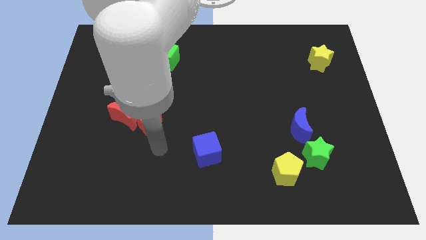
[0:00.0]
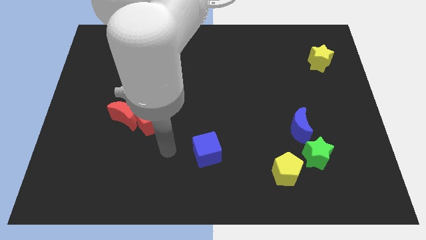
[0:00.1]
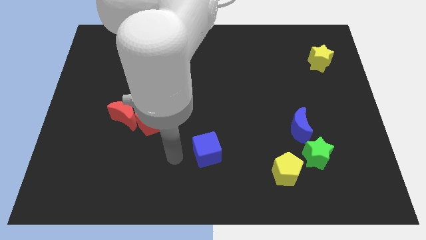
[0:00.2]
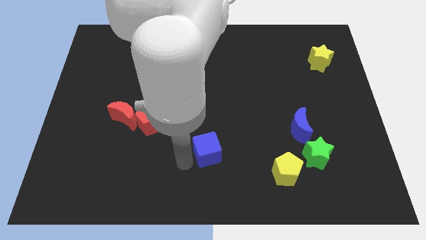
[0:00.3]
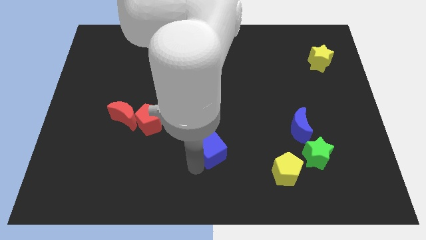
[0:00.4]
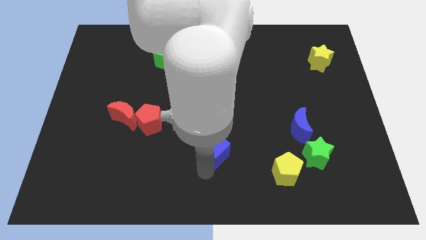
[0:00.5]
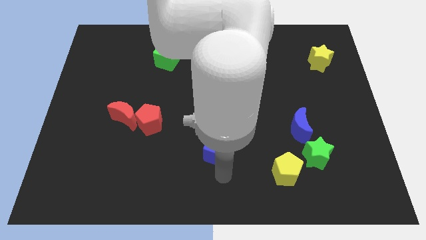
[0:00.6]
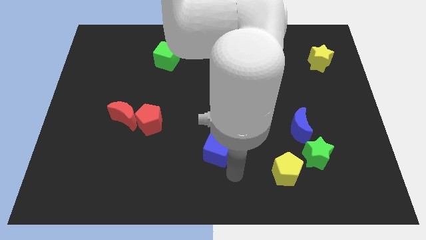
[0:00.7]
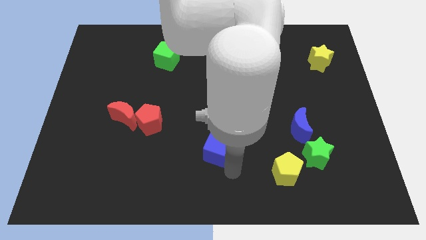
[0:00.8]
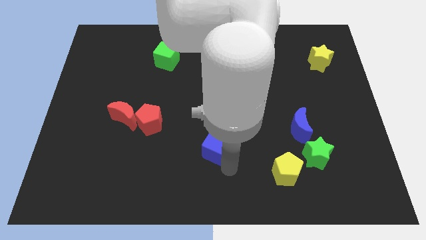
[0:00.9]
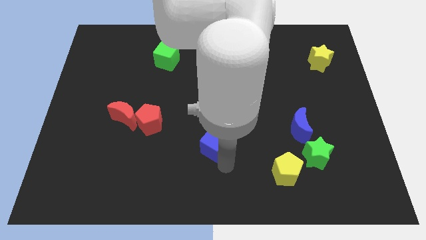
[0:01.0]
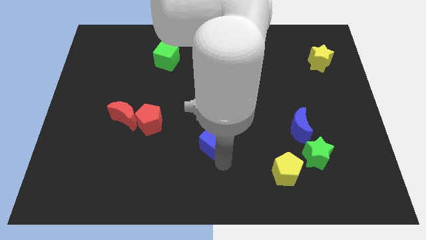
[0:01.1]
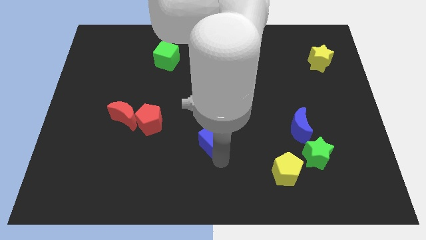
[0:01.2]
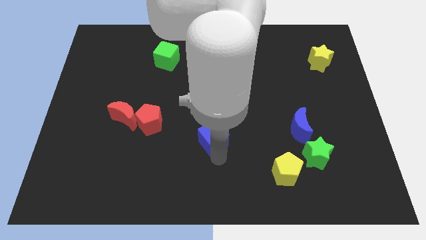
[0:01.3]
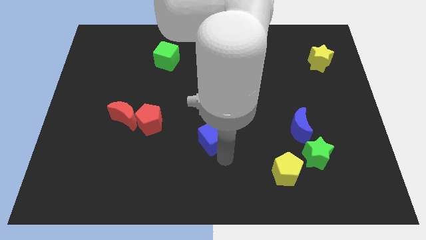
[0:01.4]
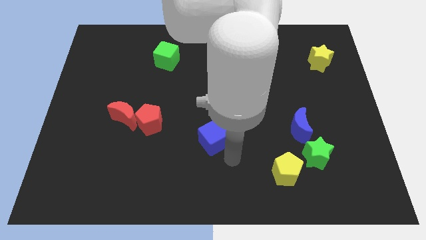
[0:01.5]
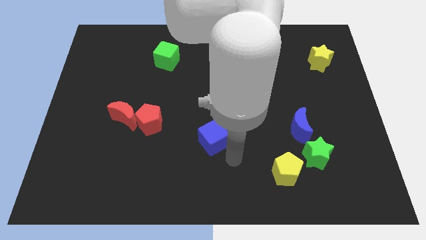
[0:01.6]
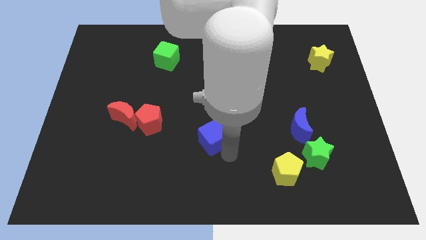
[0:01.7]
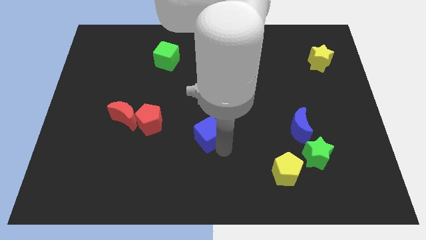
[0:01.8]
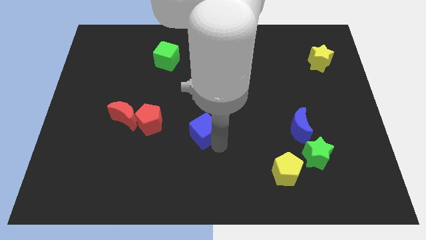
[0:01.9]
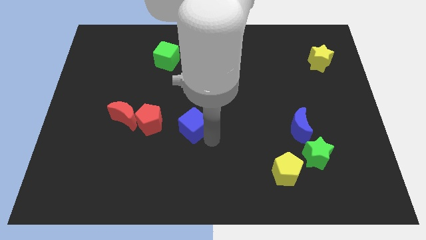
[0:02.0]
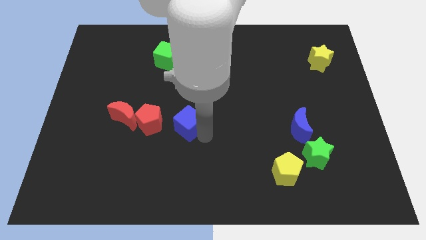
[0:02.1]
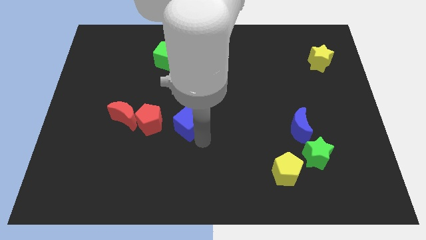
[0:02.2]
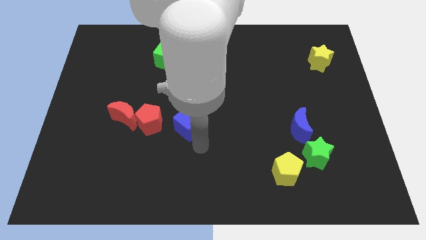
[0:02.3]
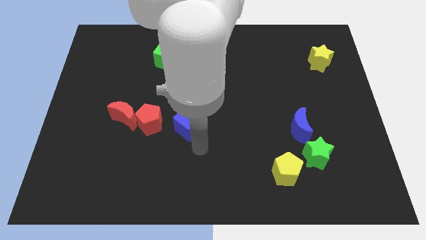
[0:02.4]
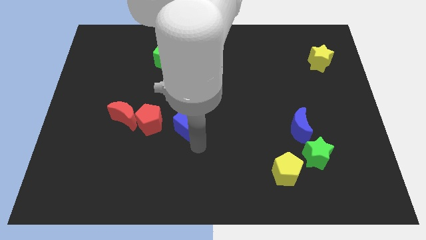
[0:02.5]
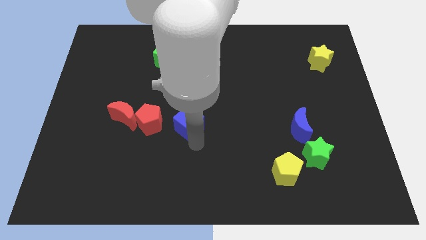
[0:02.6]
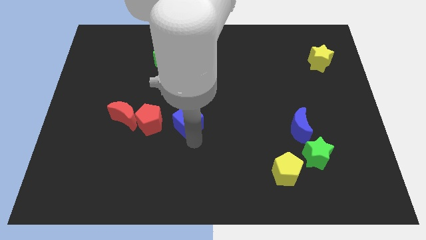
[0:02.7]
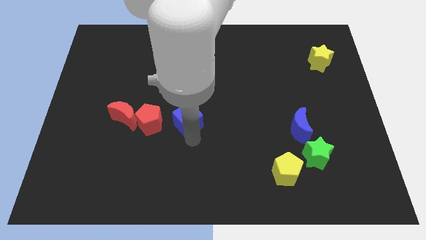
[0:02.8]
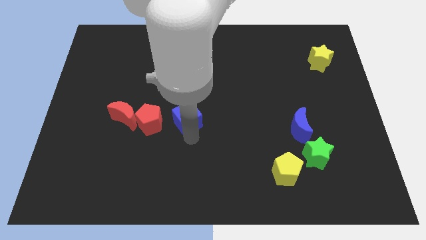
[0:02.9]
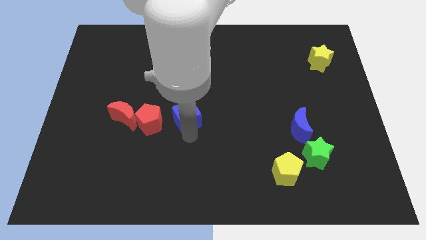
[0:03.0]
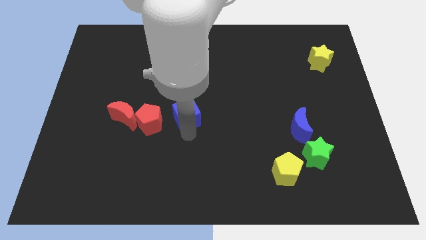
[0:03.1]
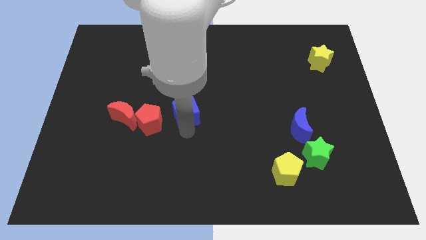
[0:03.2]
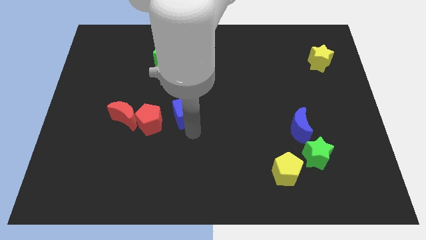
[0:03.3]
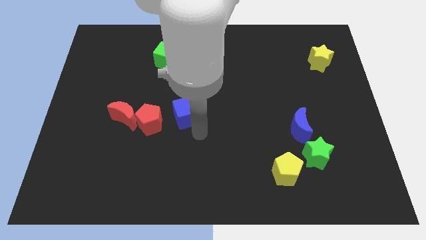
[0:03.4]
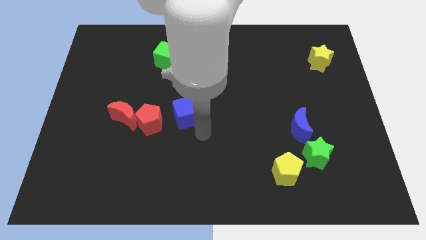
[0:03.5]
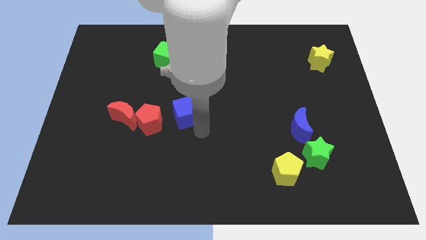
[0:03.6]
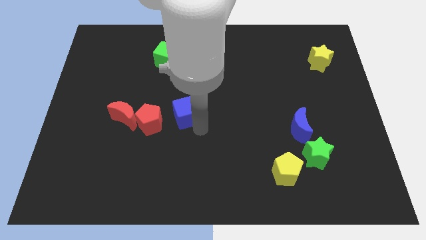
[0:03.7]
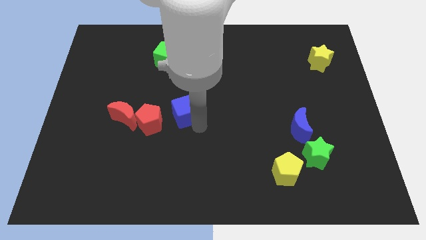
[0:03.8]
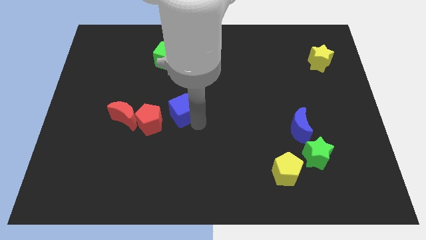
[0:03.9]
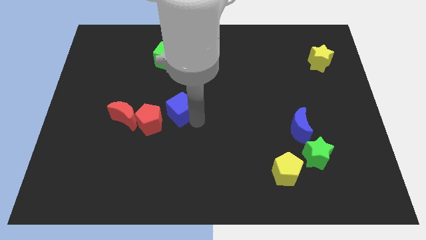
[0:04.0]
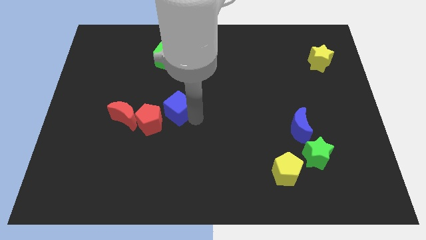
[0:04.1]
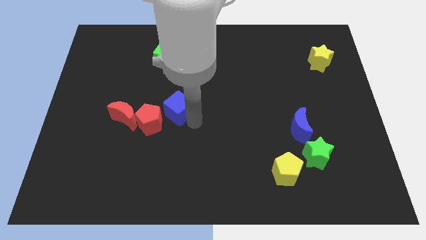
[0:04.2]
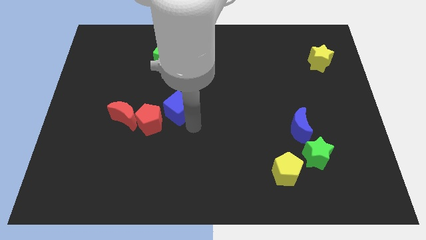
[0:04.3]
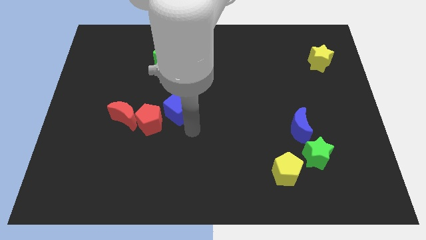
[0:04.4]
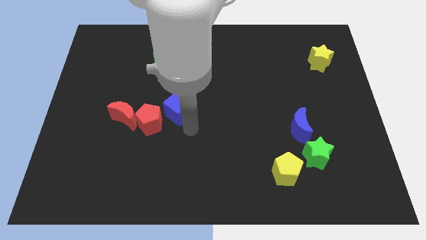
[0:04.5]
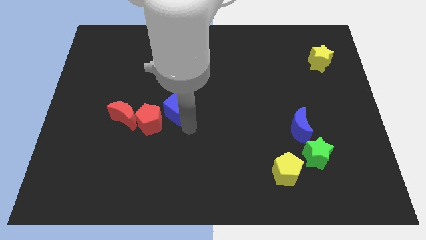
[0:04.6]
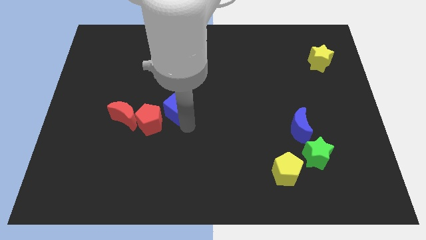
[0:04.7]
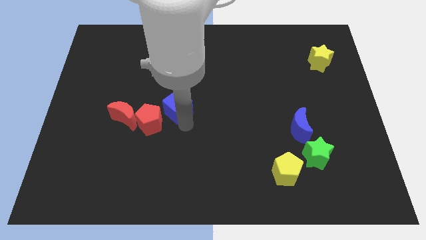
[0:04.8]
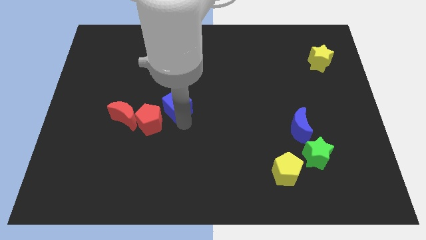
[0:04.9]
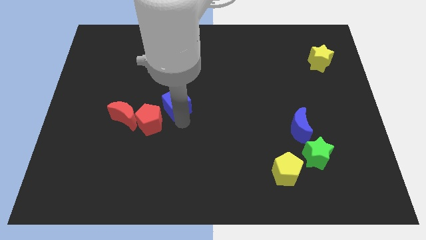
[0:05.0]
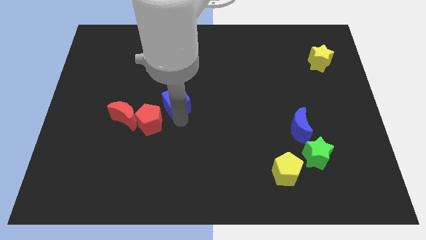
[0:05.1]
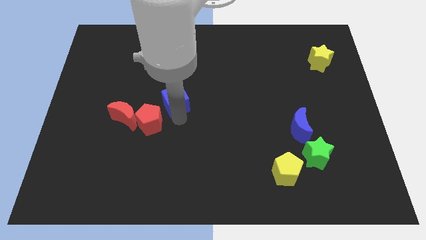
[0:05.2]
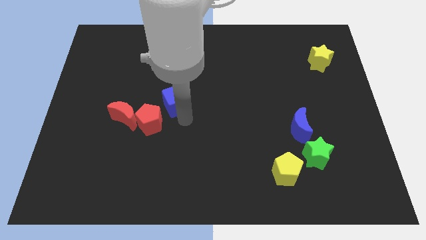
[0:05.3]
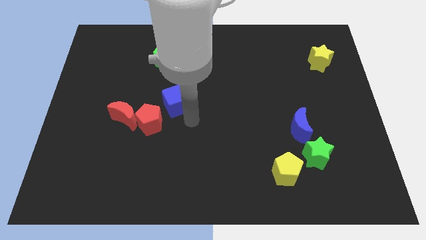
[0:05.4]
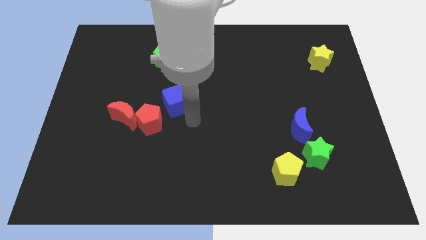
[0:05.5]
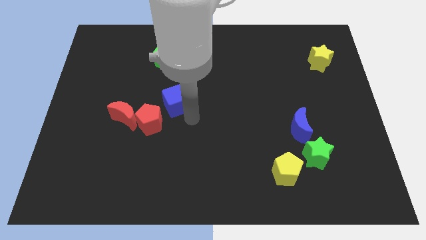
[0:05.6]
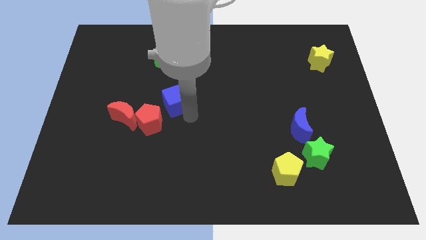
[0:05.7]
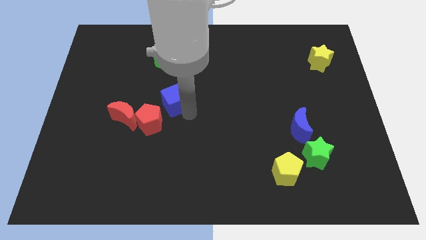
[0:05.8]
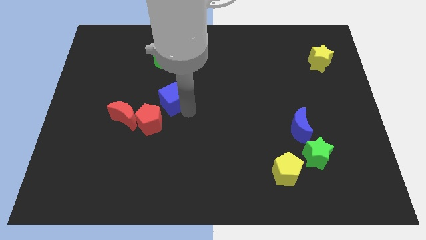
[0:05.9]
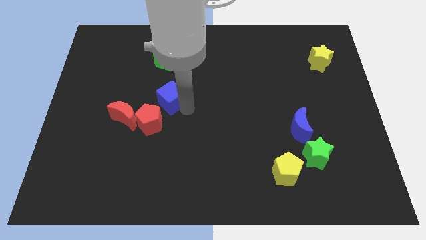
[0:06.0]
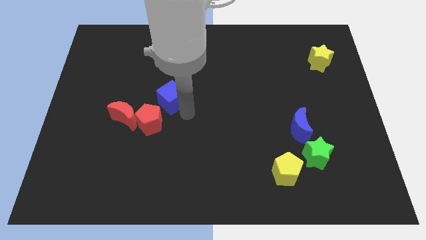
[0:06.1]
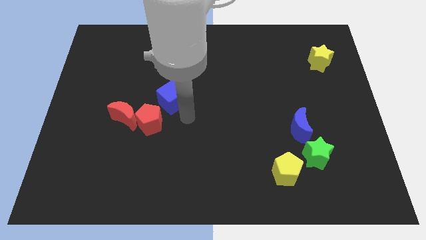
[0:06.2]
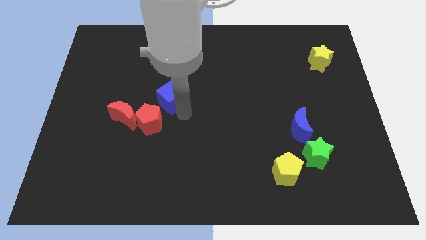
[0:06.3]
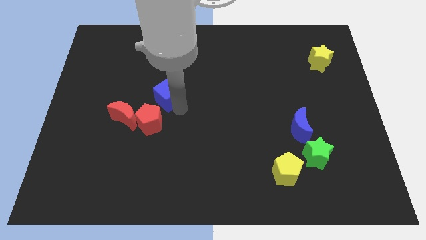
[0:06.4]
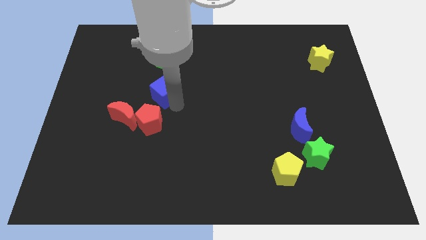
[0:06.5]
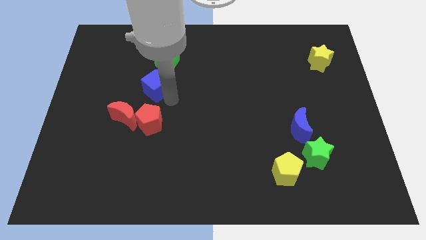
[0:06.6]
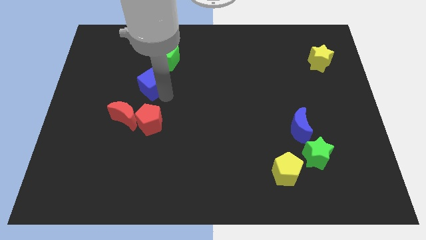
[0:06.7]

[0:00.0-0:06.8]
push the blue cube to the bottom left side of the green cube
